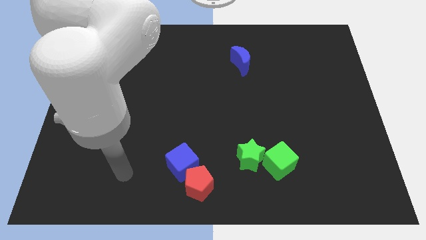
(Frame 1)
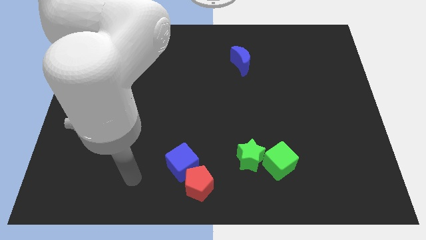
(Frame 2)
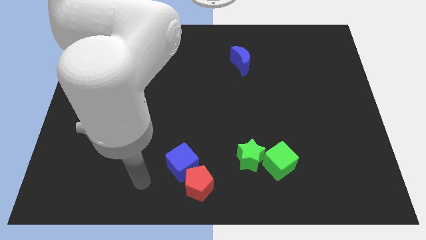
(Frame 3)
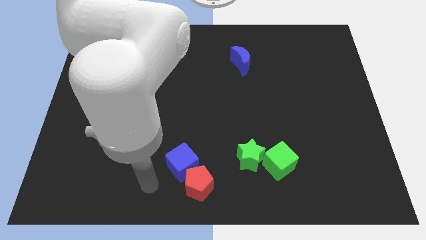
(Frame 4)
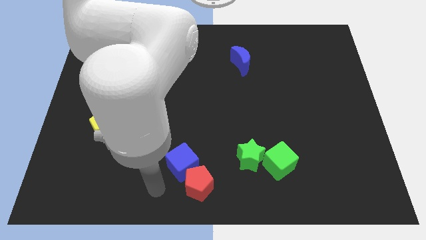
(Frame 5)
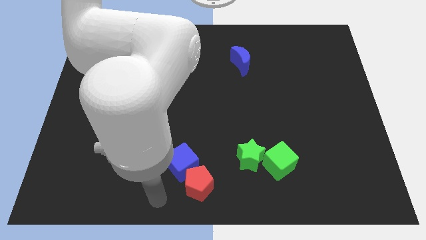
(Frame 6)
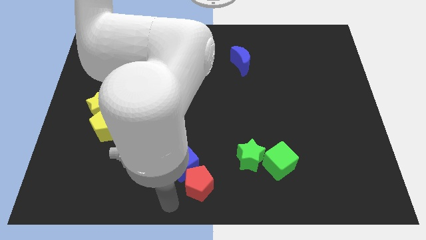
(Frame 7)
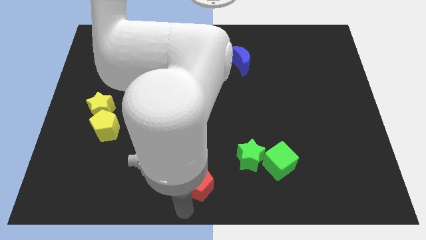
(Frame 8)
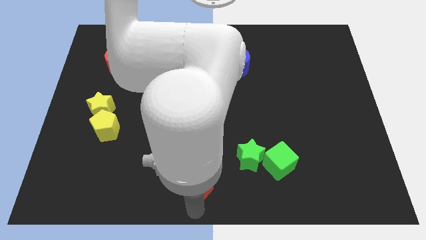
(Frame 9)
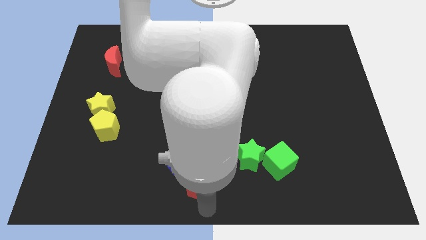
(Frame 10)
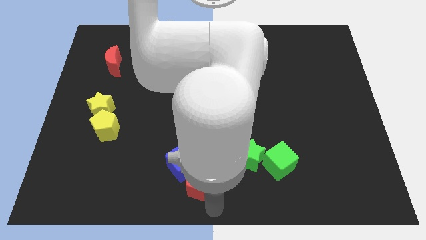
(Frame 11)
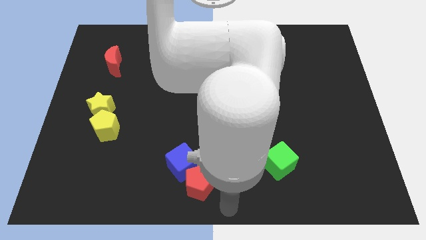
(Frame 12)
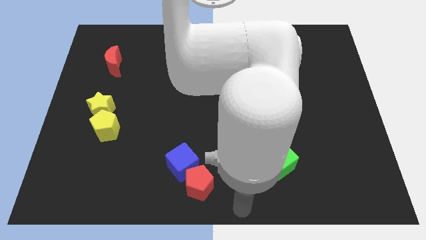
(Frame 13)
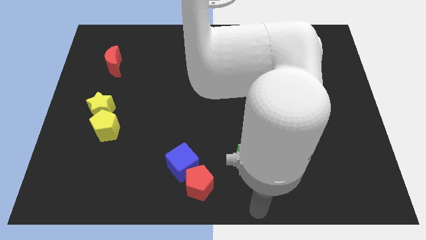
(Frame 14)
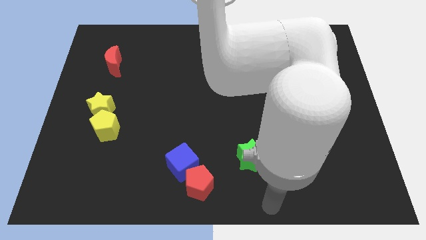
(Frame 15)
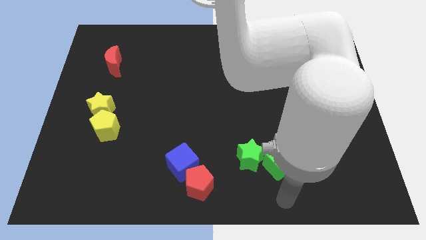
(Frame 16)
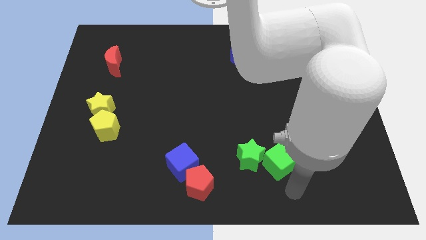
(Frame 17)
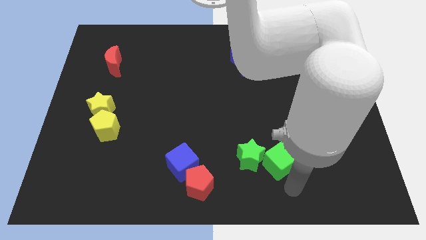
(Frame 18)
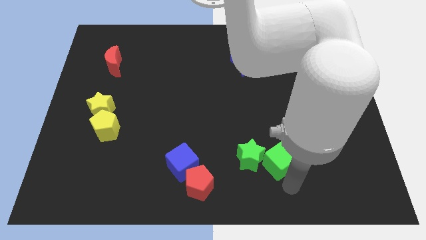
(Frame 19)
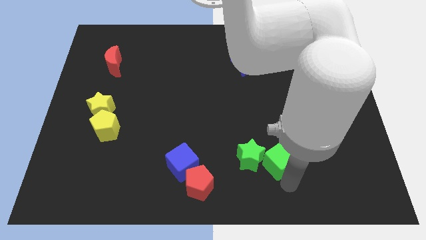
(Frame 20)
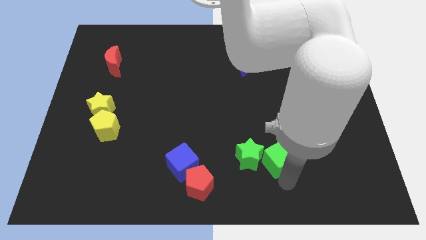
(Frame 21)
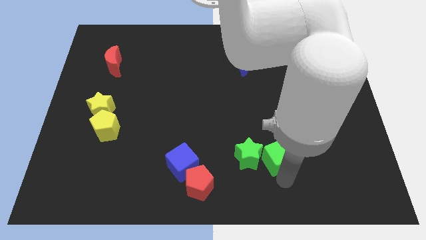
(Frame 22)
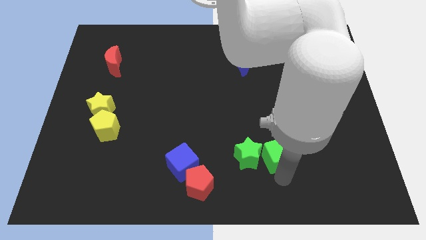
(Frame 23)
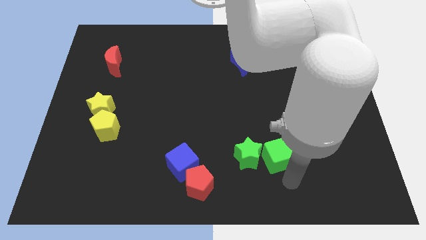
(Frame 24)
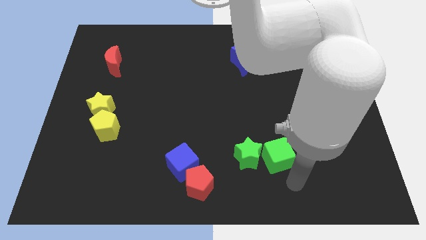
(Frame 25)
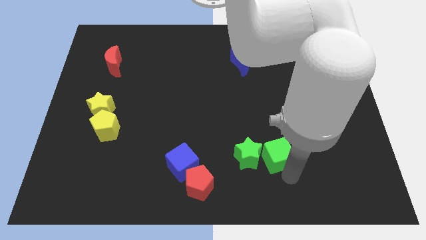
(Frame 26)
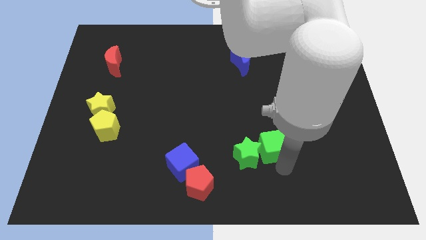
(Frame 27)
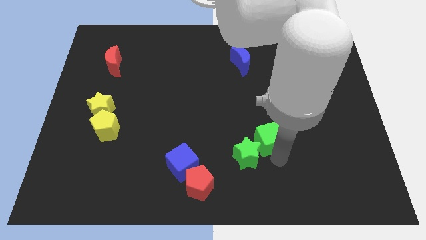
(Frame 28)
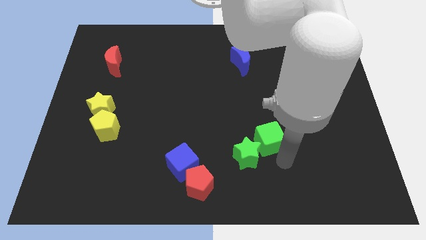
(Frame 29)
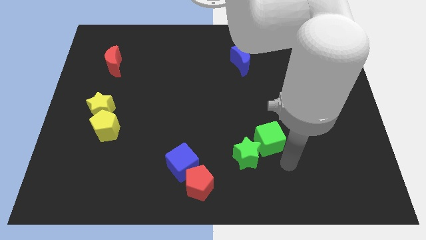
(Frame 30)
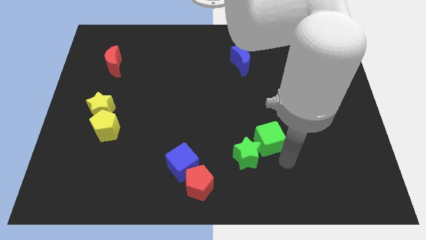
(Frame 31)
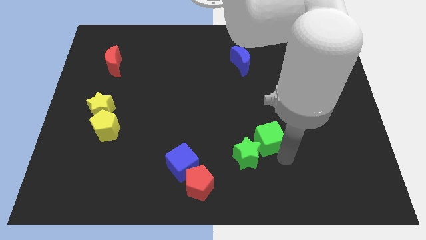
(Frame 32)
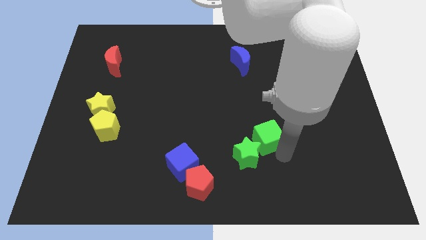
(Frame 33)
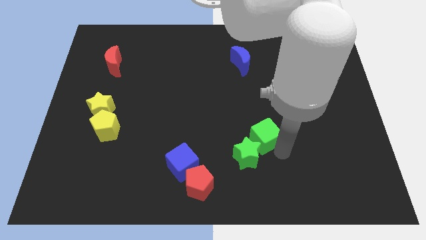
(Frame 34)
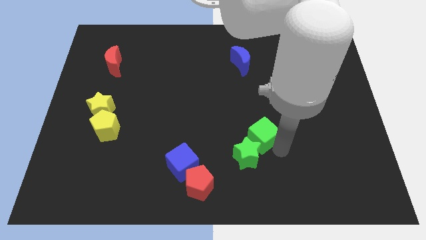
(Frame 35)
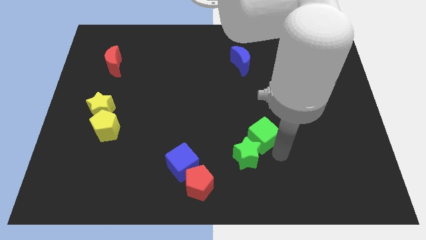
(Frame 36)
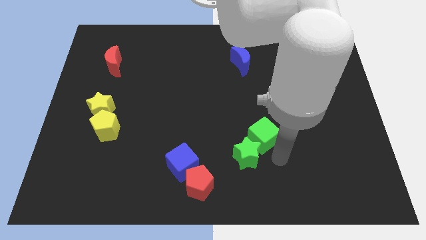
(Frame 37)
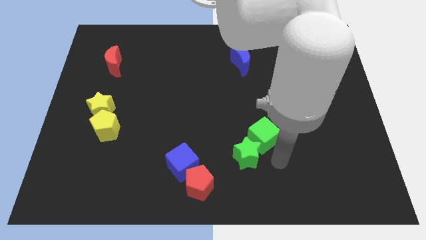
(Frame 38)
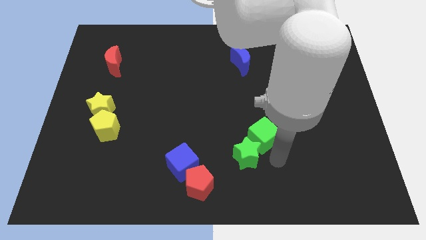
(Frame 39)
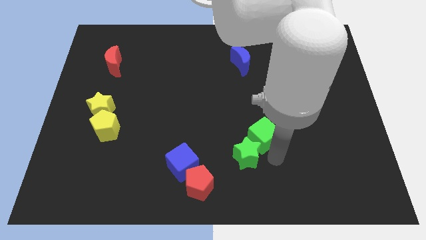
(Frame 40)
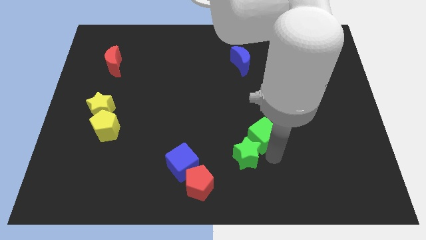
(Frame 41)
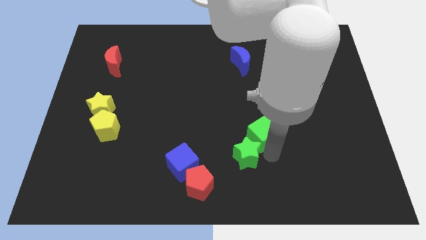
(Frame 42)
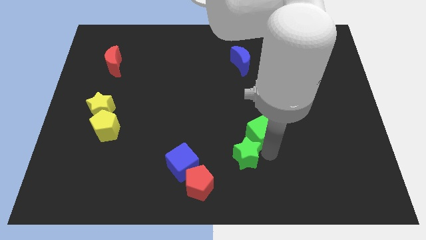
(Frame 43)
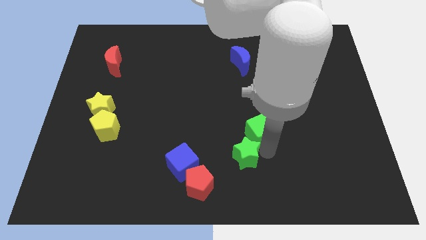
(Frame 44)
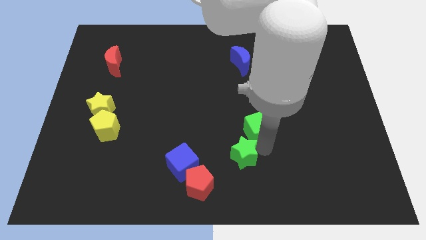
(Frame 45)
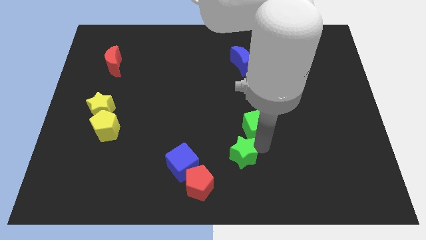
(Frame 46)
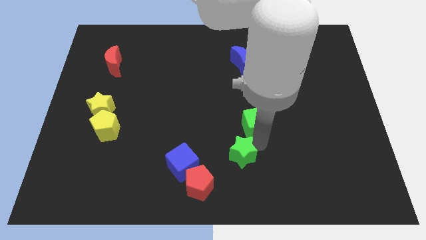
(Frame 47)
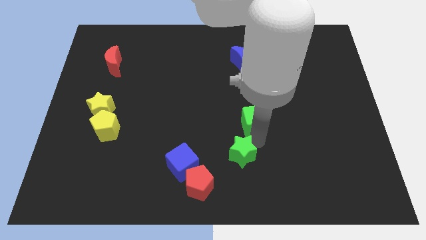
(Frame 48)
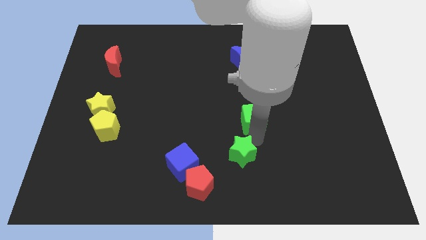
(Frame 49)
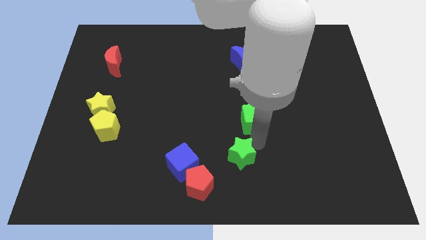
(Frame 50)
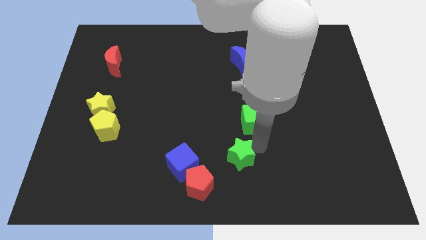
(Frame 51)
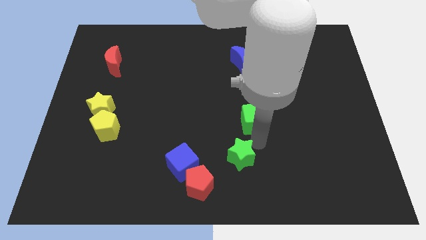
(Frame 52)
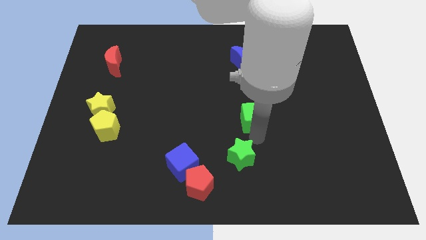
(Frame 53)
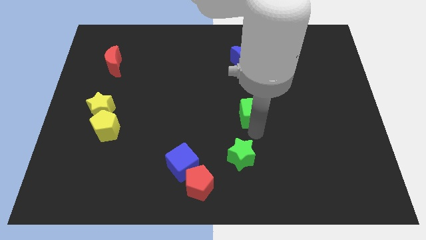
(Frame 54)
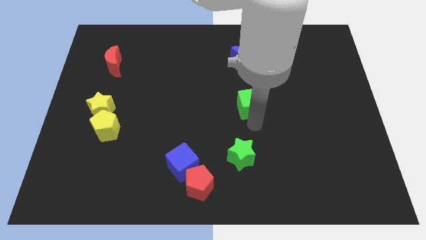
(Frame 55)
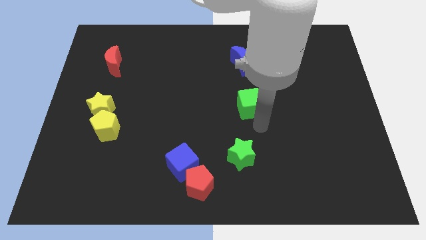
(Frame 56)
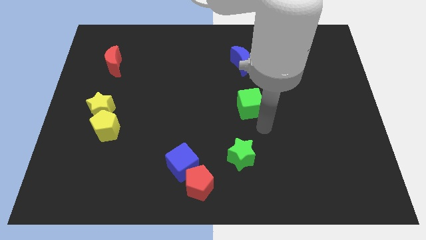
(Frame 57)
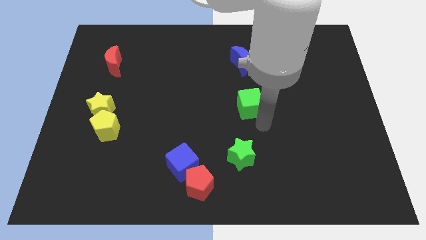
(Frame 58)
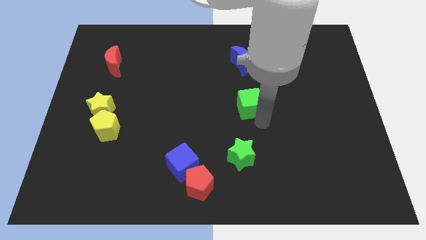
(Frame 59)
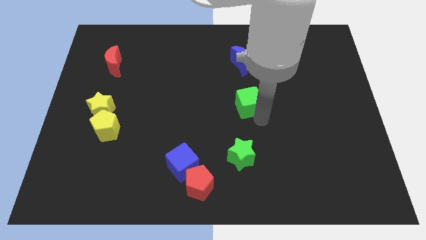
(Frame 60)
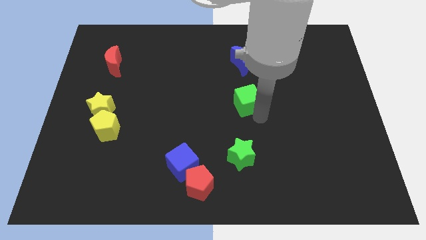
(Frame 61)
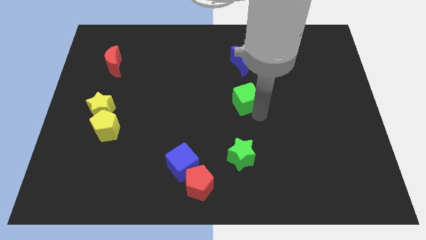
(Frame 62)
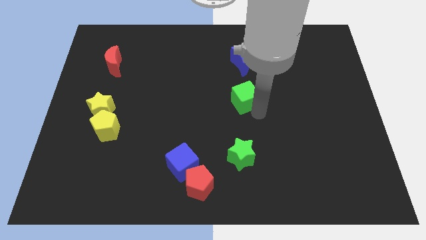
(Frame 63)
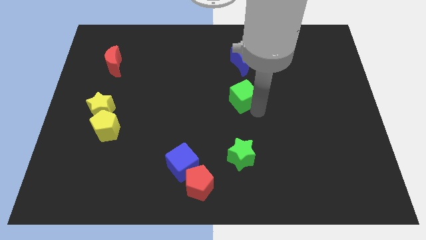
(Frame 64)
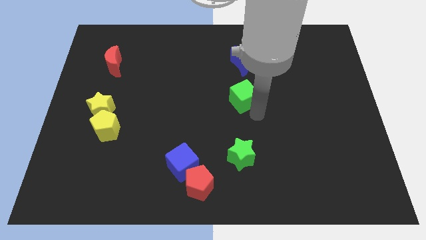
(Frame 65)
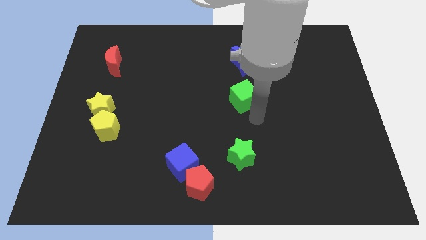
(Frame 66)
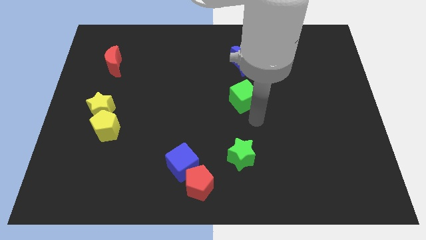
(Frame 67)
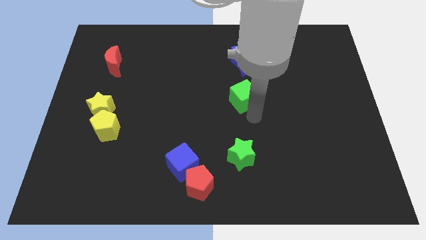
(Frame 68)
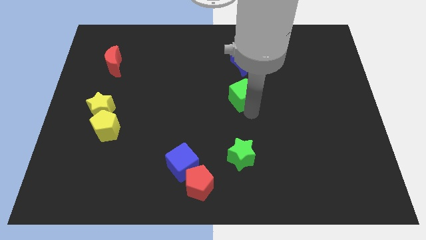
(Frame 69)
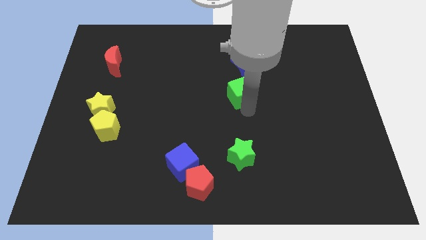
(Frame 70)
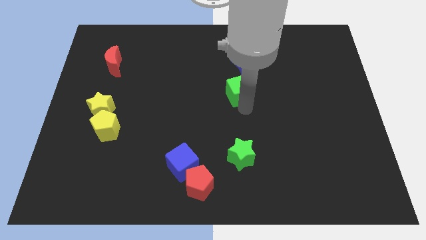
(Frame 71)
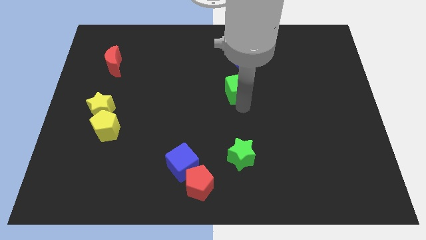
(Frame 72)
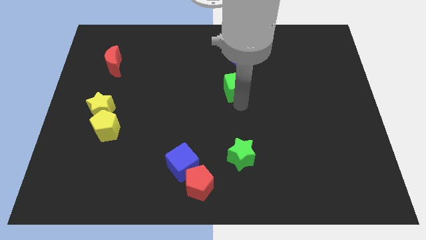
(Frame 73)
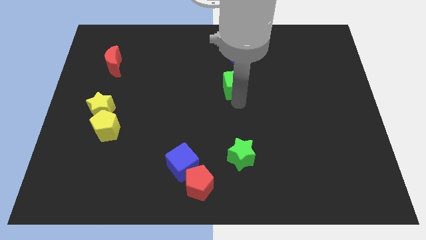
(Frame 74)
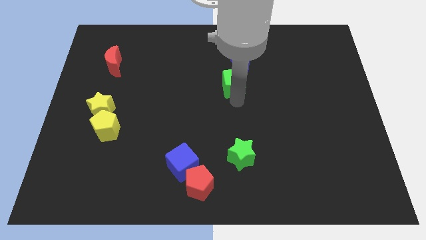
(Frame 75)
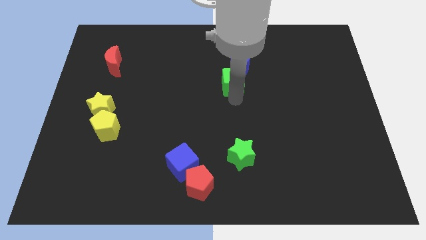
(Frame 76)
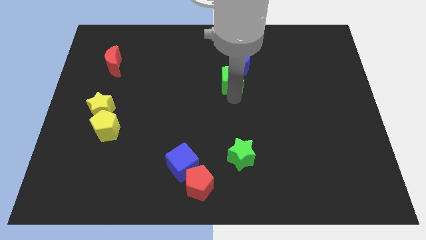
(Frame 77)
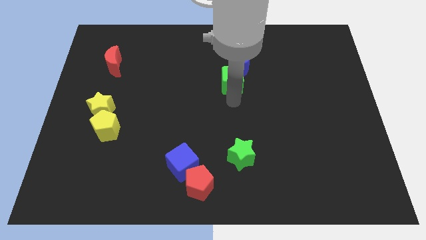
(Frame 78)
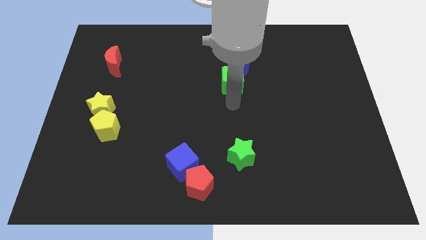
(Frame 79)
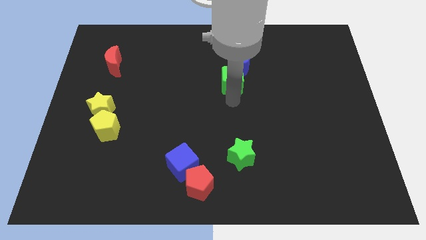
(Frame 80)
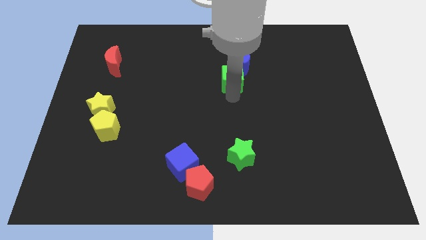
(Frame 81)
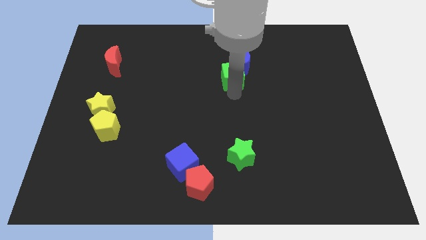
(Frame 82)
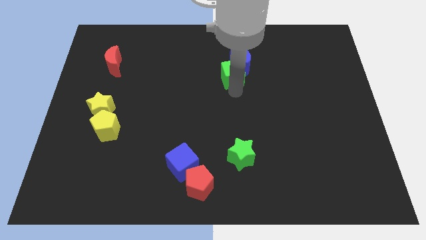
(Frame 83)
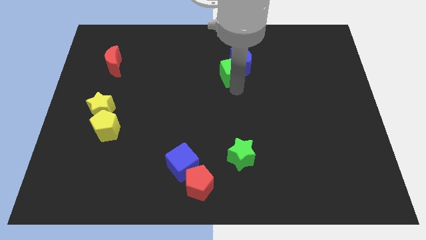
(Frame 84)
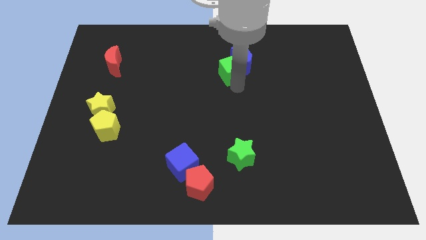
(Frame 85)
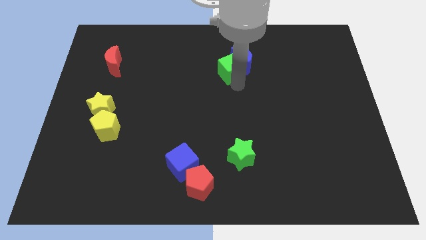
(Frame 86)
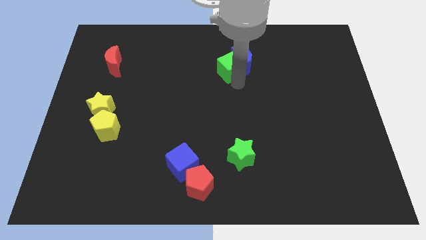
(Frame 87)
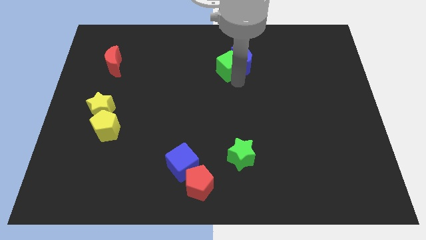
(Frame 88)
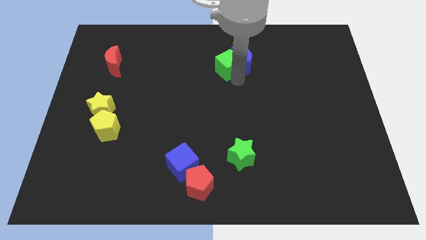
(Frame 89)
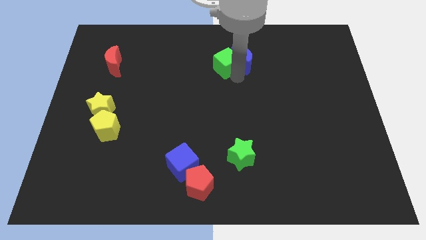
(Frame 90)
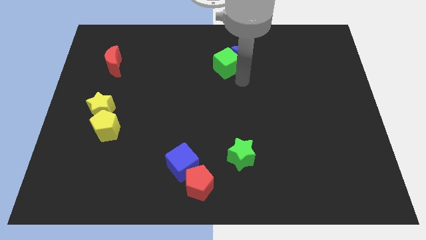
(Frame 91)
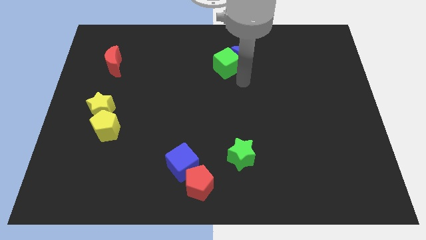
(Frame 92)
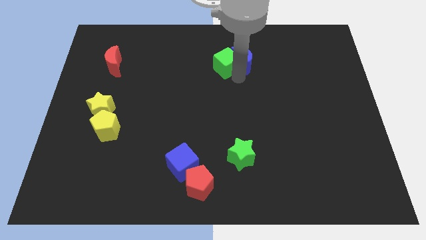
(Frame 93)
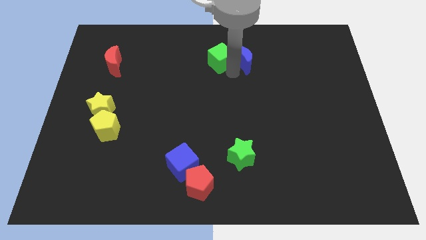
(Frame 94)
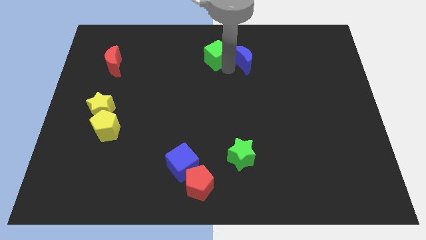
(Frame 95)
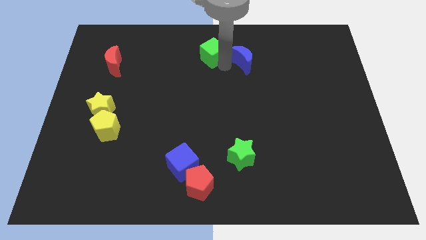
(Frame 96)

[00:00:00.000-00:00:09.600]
slide the green cube to the top
